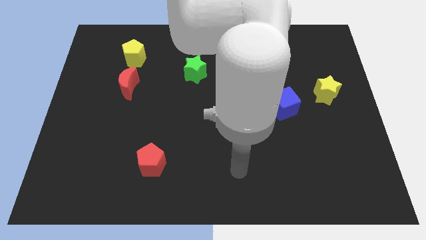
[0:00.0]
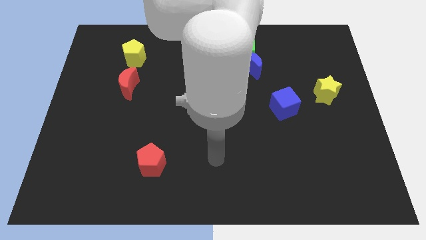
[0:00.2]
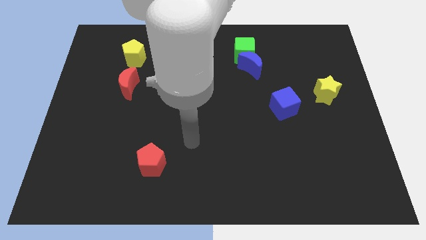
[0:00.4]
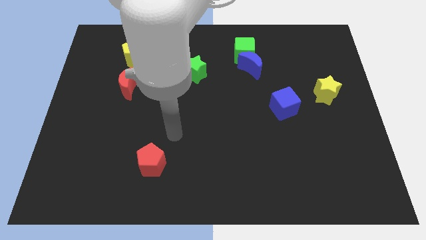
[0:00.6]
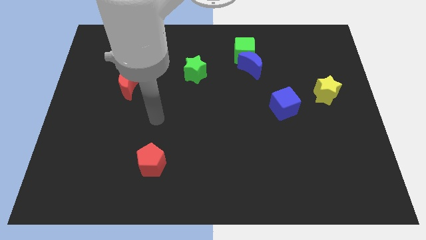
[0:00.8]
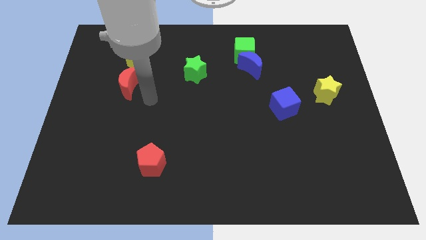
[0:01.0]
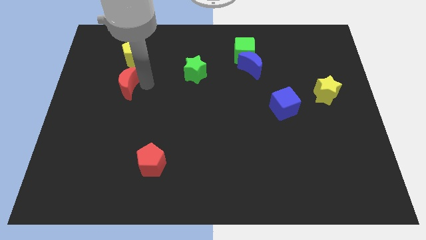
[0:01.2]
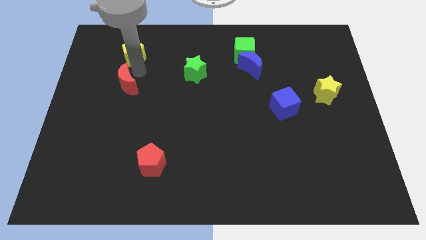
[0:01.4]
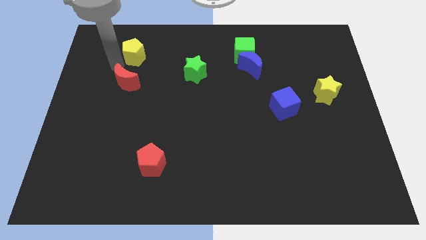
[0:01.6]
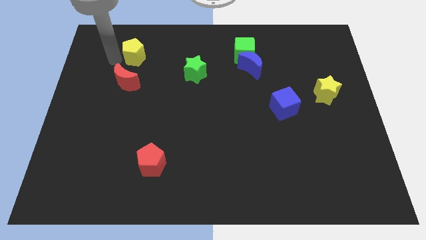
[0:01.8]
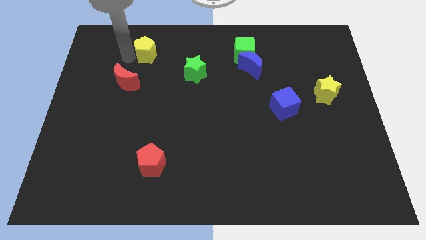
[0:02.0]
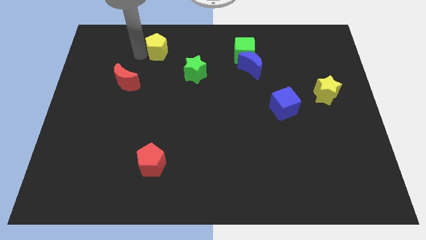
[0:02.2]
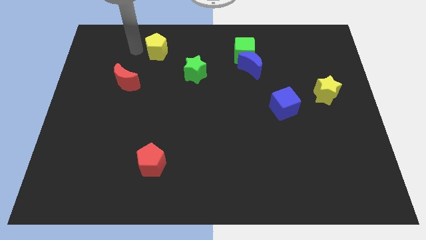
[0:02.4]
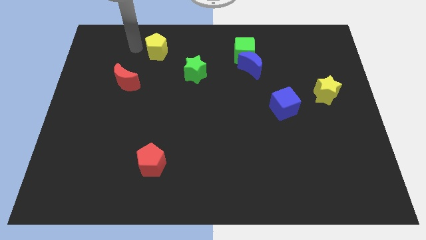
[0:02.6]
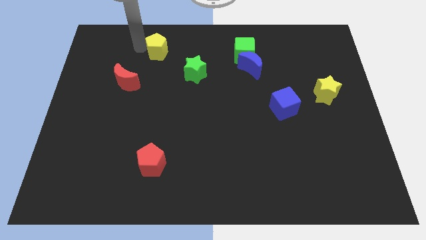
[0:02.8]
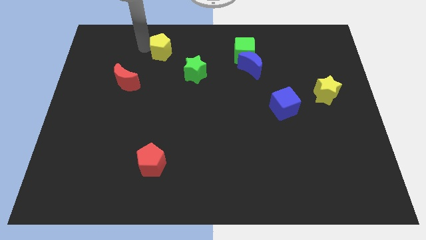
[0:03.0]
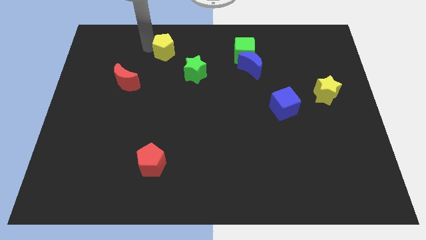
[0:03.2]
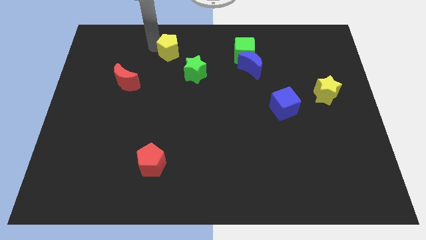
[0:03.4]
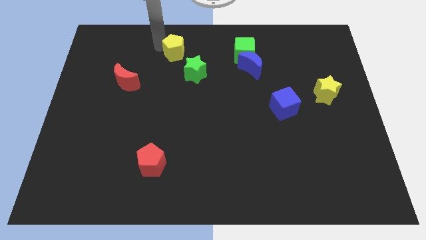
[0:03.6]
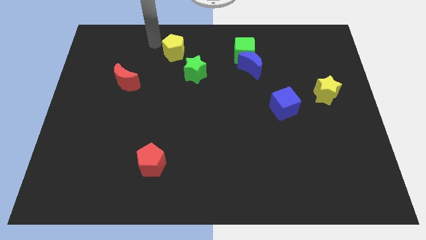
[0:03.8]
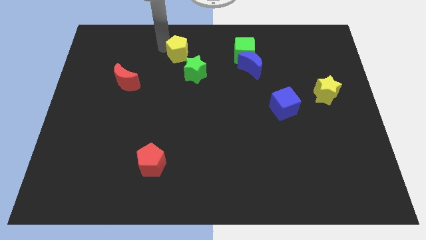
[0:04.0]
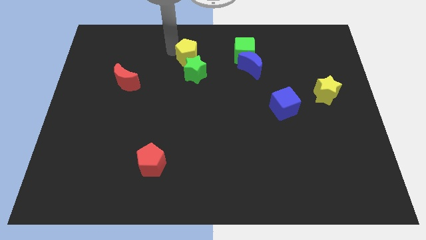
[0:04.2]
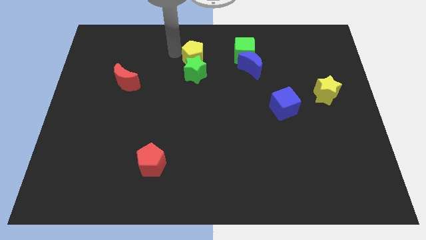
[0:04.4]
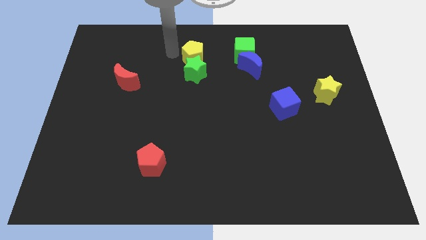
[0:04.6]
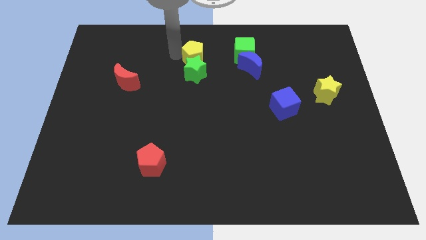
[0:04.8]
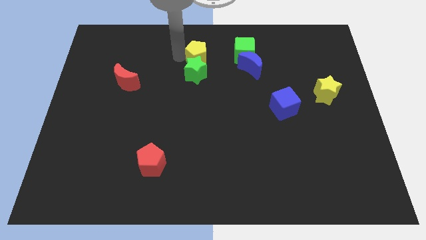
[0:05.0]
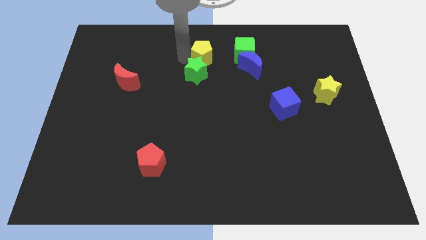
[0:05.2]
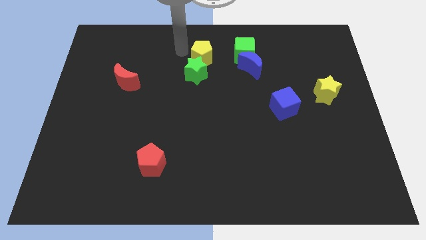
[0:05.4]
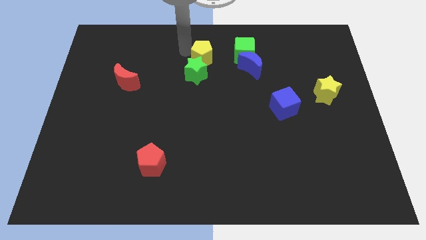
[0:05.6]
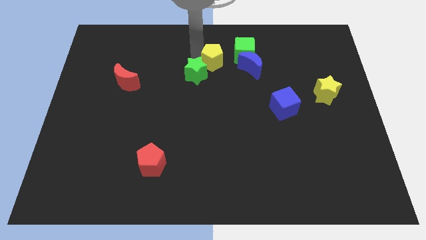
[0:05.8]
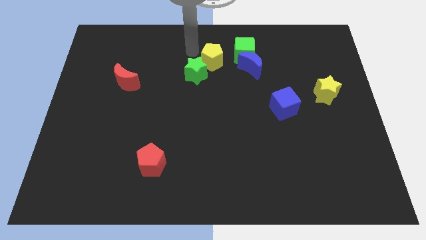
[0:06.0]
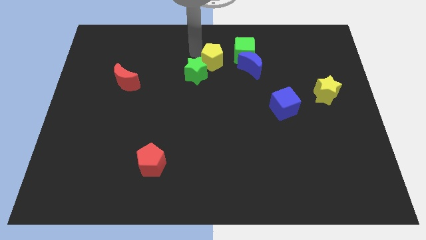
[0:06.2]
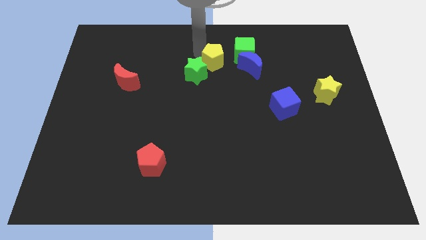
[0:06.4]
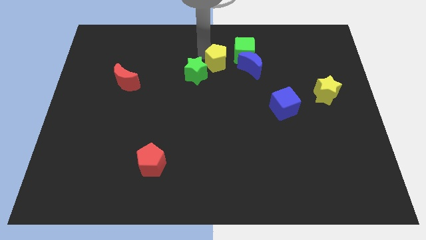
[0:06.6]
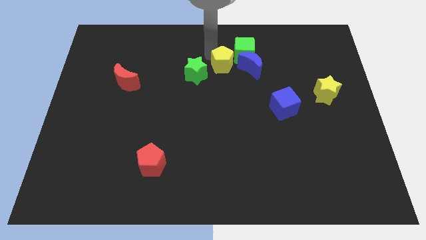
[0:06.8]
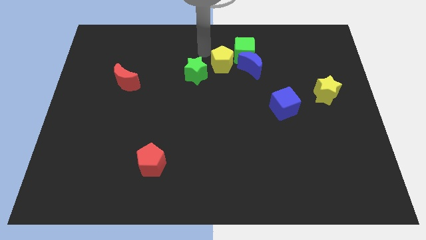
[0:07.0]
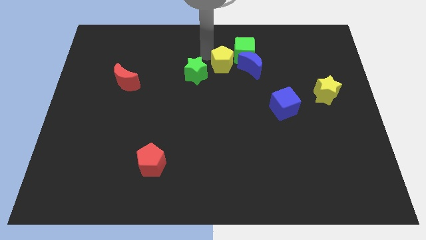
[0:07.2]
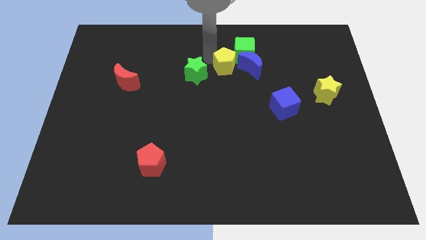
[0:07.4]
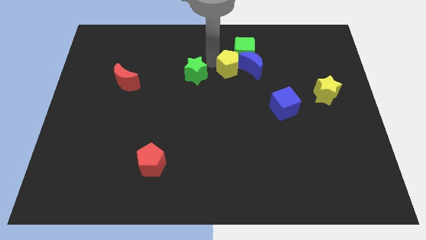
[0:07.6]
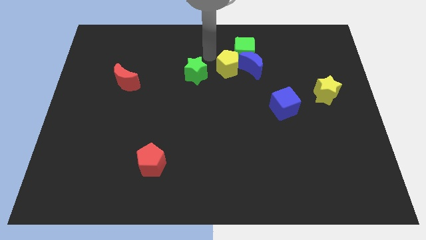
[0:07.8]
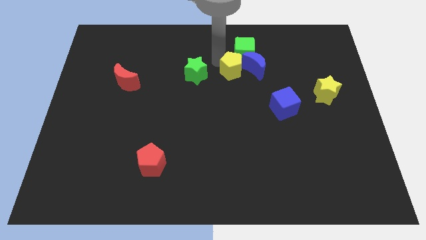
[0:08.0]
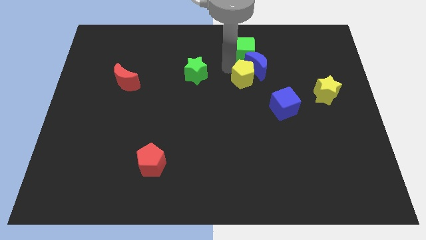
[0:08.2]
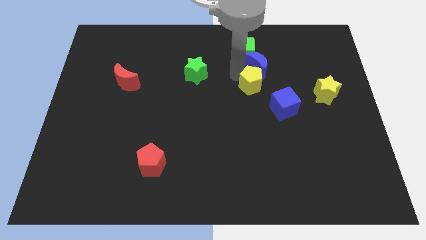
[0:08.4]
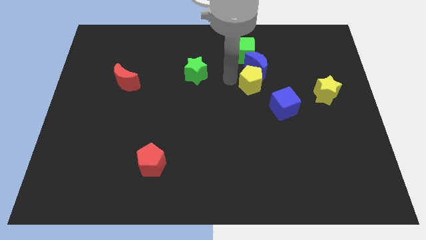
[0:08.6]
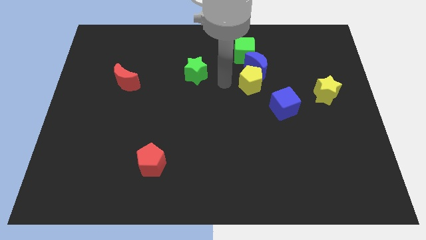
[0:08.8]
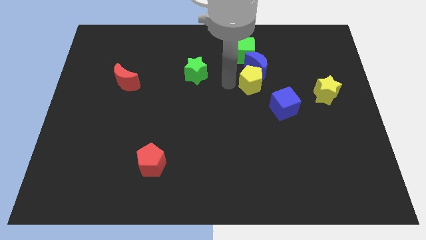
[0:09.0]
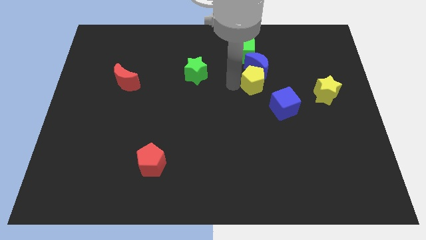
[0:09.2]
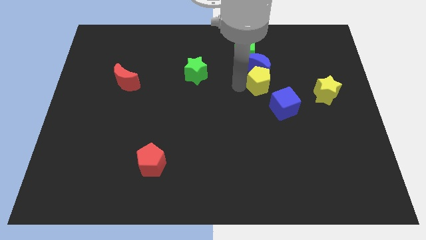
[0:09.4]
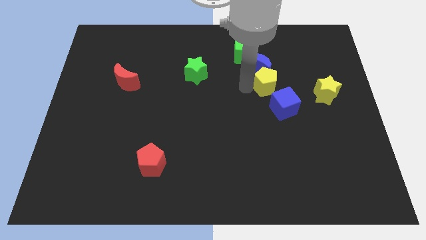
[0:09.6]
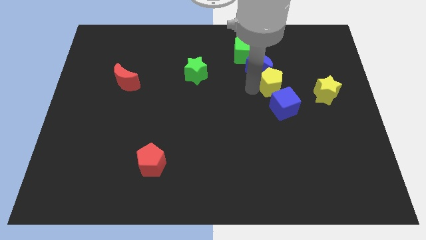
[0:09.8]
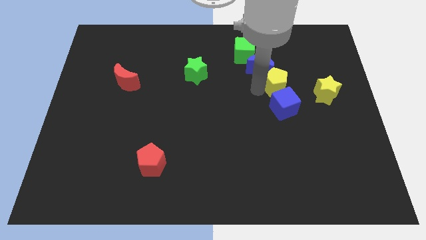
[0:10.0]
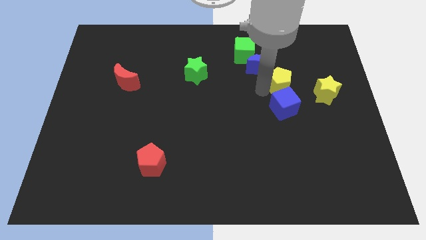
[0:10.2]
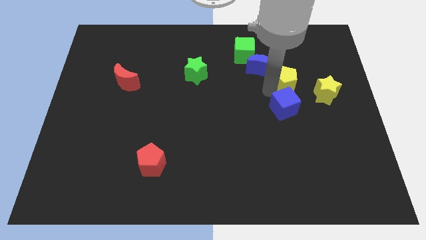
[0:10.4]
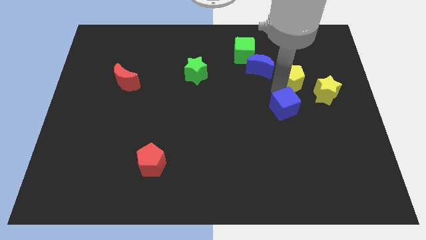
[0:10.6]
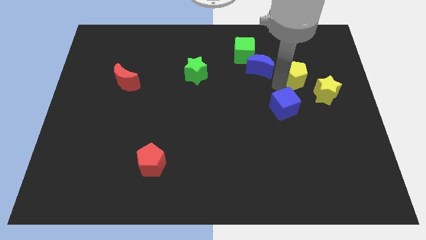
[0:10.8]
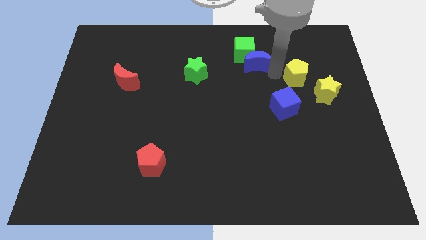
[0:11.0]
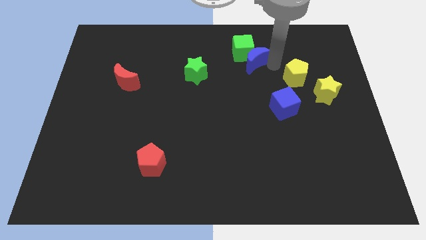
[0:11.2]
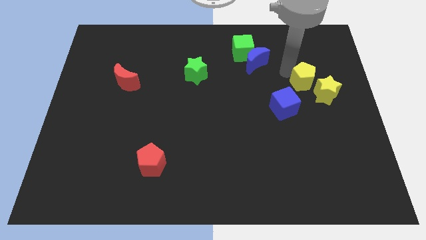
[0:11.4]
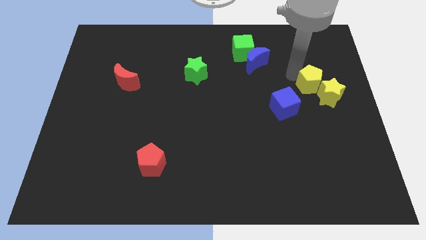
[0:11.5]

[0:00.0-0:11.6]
slide the yellow pentagon towards the yellow star

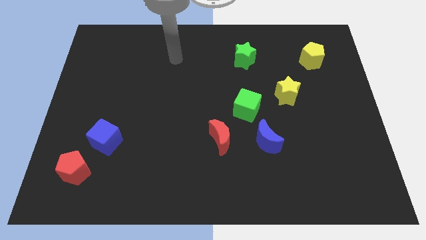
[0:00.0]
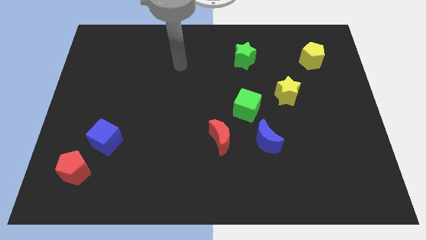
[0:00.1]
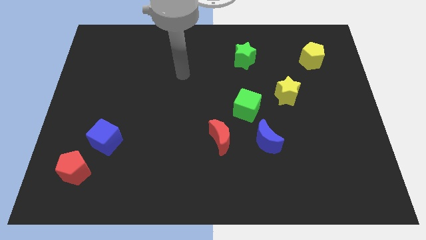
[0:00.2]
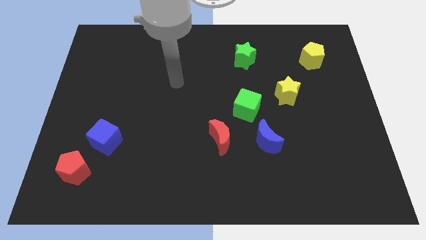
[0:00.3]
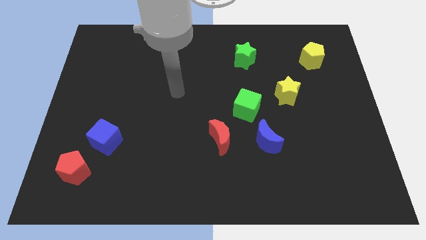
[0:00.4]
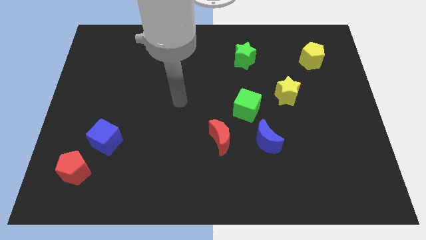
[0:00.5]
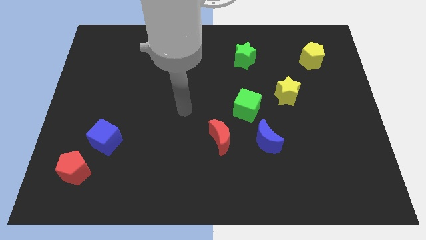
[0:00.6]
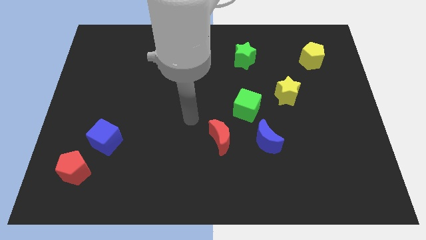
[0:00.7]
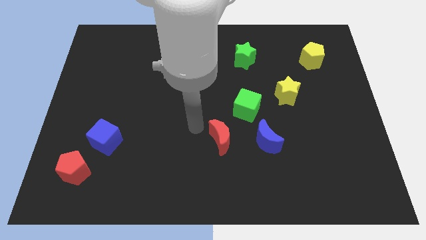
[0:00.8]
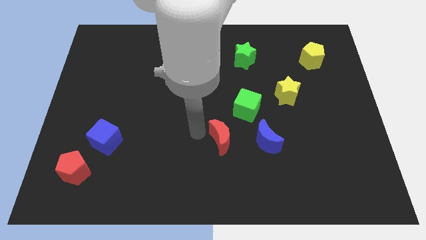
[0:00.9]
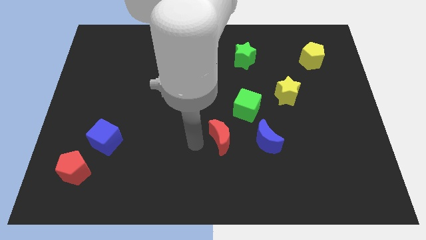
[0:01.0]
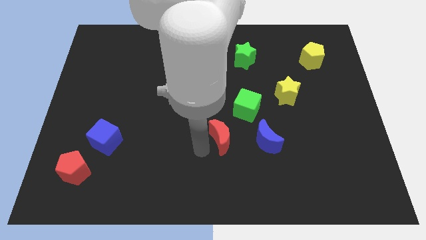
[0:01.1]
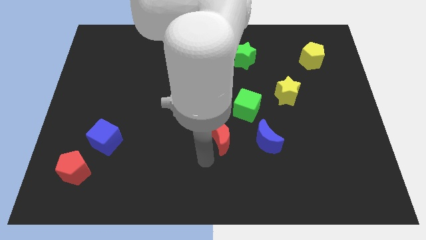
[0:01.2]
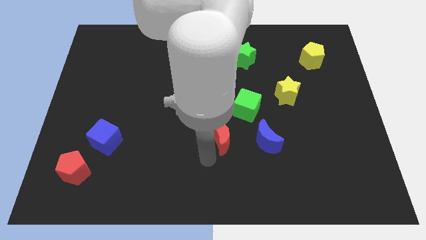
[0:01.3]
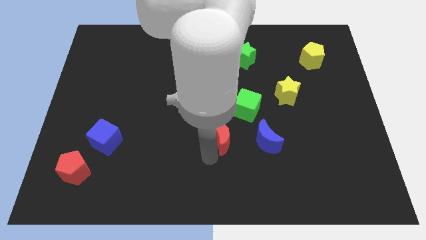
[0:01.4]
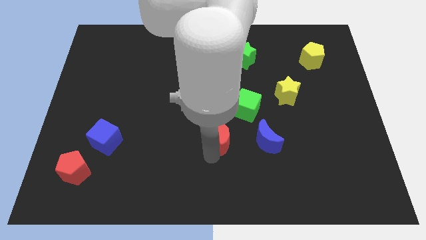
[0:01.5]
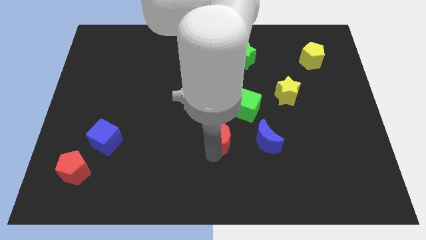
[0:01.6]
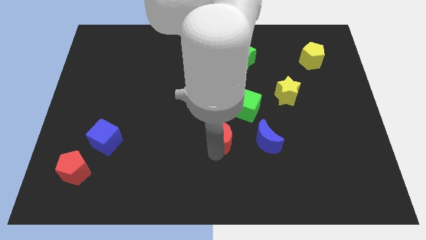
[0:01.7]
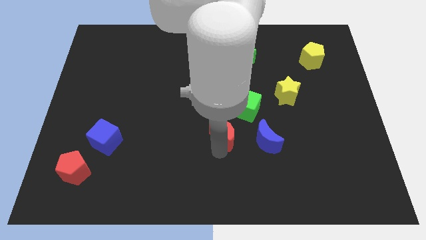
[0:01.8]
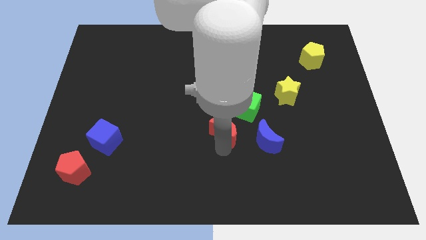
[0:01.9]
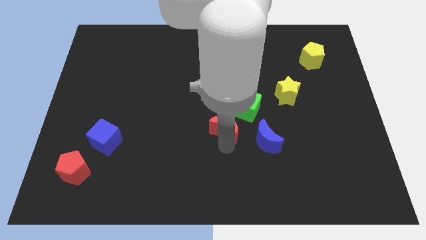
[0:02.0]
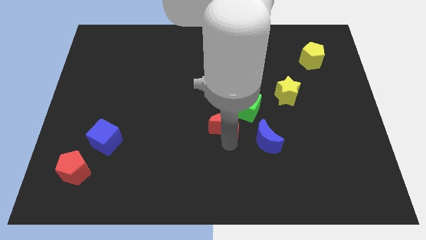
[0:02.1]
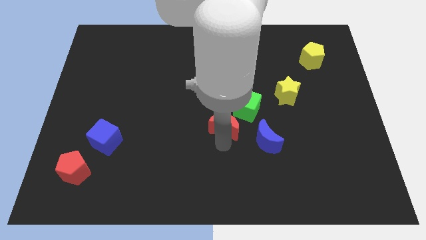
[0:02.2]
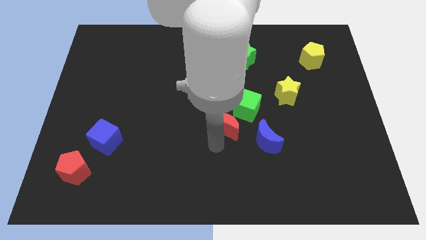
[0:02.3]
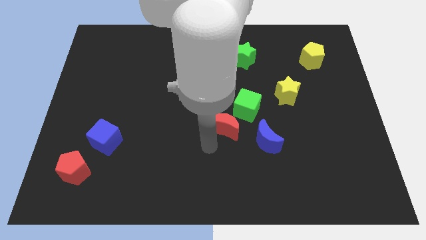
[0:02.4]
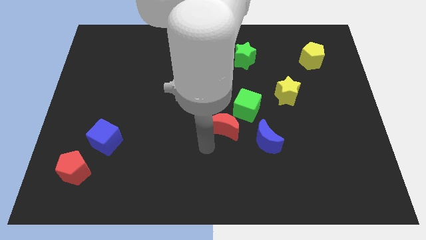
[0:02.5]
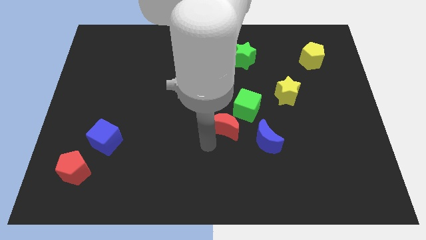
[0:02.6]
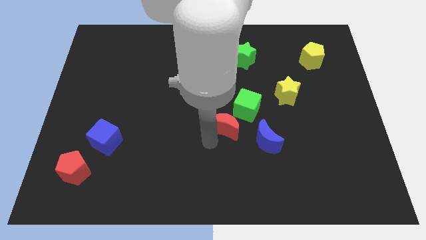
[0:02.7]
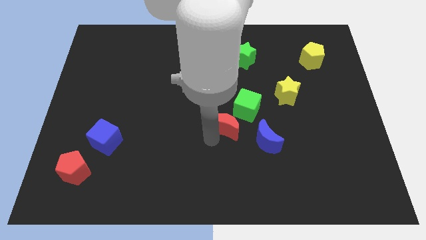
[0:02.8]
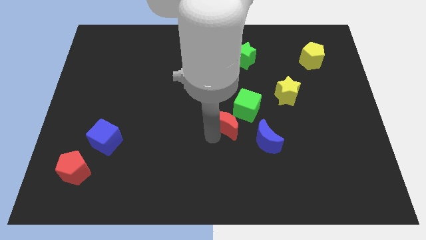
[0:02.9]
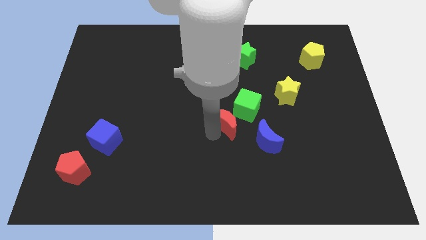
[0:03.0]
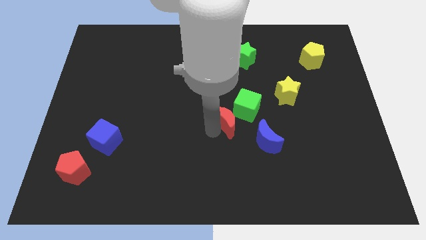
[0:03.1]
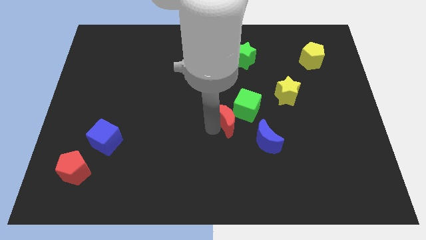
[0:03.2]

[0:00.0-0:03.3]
put the red moon to the green cube
